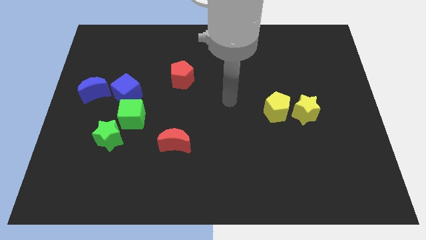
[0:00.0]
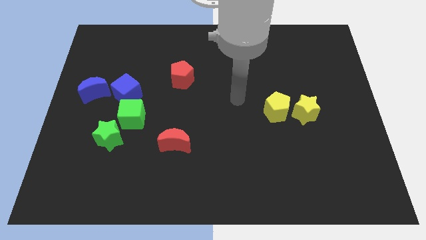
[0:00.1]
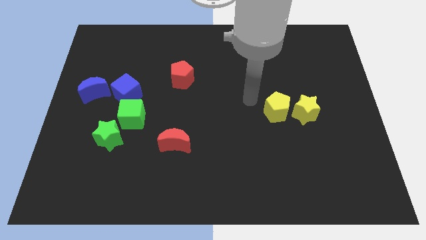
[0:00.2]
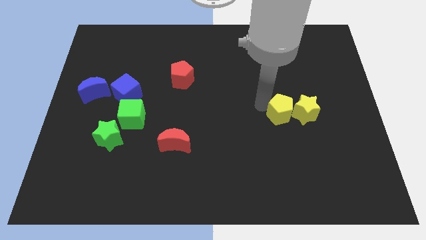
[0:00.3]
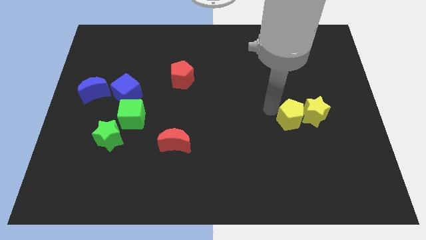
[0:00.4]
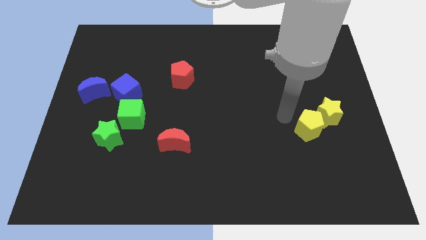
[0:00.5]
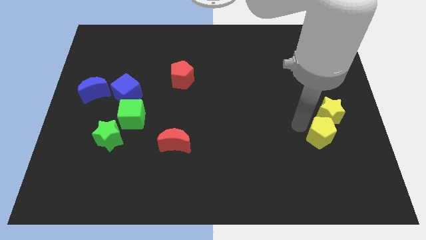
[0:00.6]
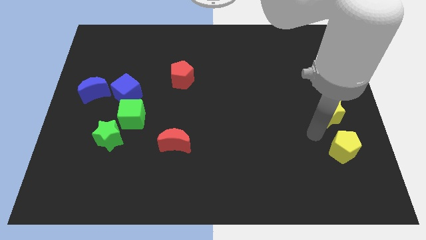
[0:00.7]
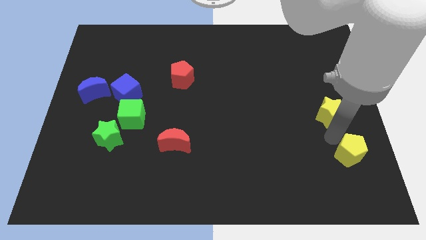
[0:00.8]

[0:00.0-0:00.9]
pull the yellow star apart from the yellow pentagon

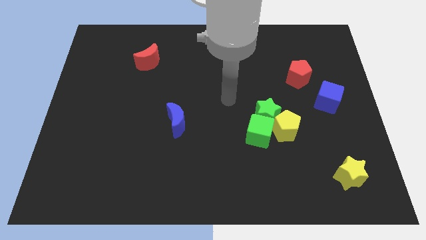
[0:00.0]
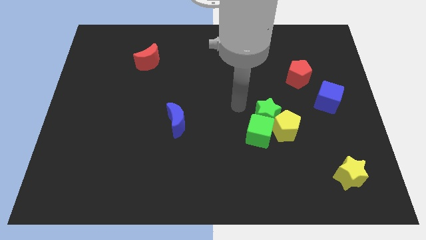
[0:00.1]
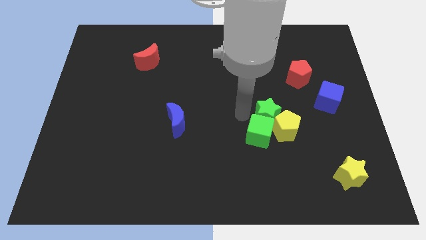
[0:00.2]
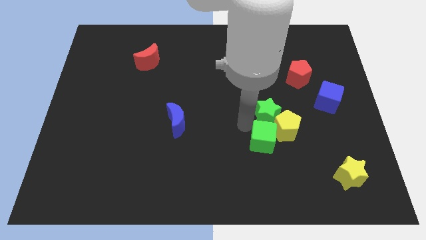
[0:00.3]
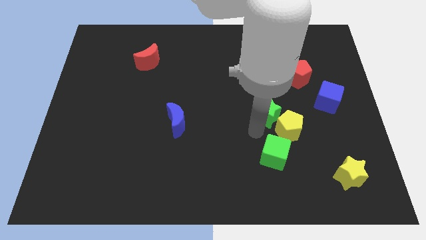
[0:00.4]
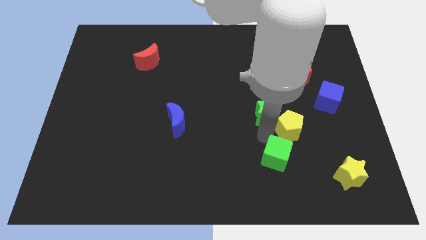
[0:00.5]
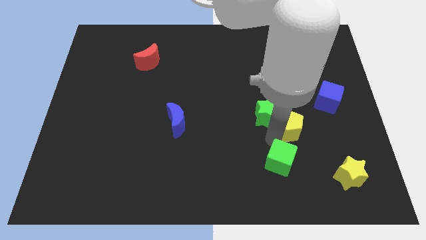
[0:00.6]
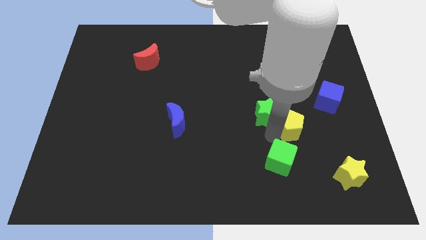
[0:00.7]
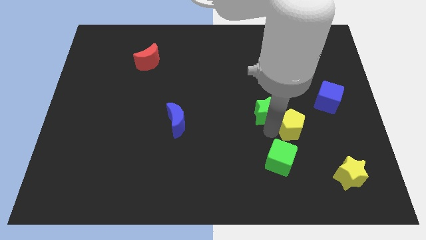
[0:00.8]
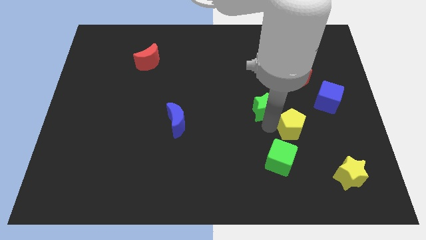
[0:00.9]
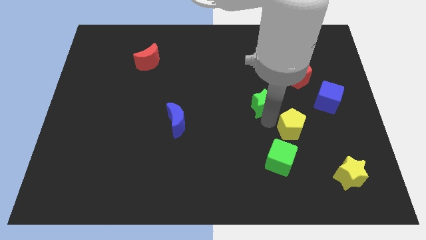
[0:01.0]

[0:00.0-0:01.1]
separate the green star from the yellow pentagon and green cube

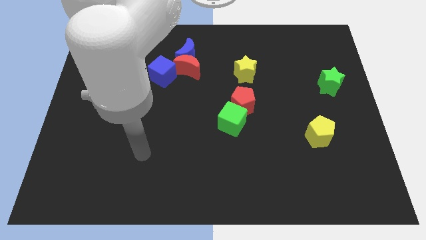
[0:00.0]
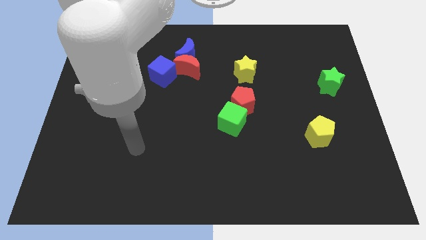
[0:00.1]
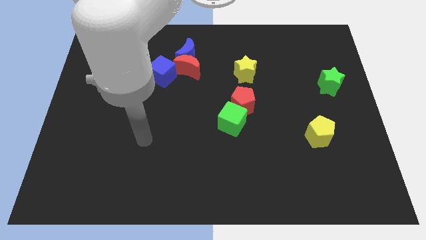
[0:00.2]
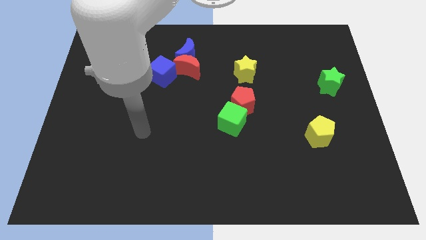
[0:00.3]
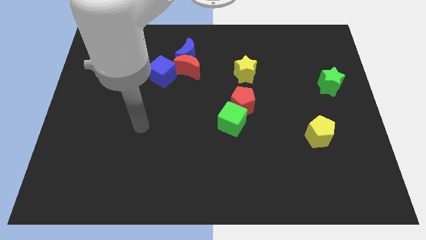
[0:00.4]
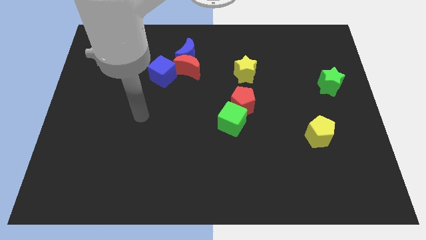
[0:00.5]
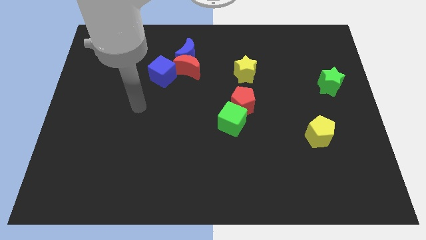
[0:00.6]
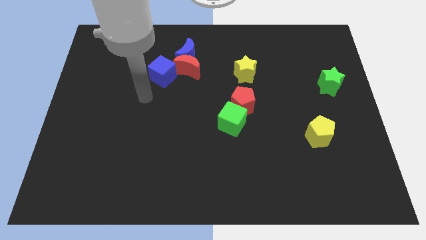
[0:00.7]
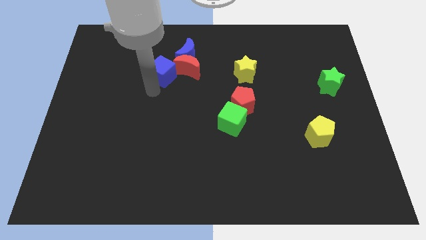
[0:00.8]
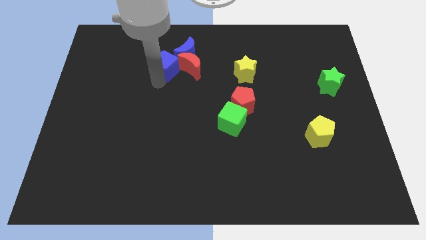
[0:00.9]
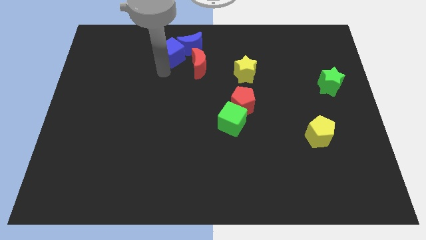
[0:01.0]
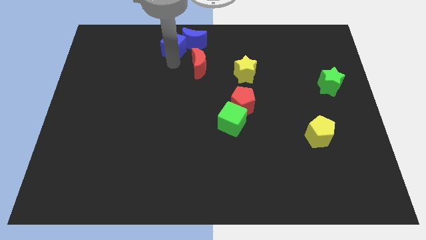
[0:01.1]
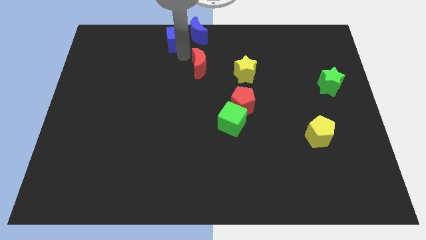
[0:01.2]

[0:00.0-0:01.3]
move the red moon away from the blue moon and blue cube

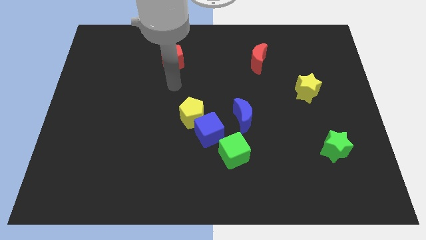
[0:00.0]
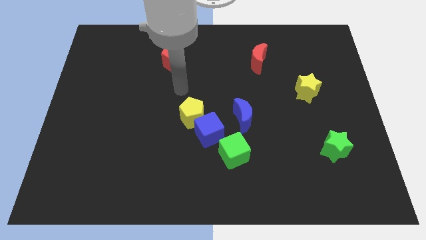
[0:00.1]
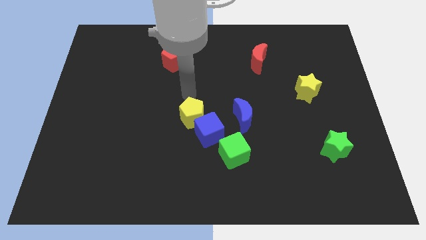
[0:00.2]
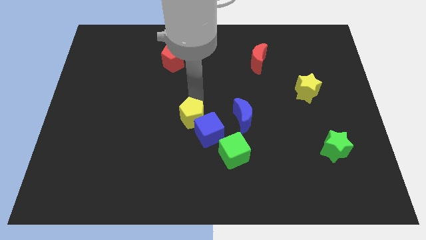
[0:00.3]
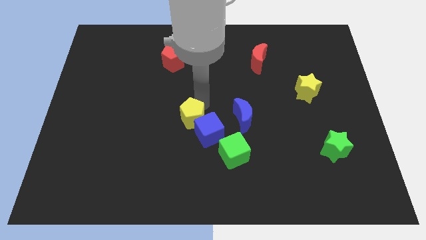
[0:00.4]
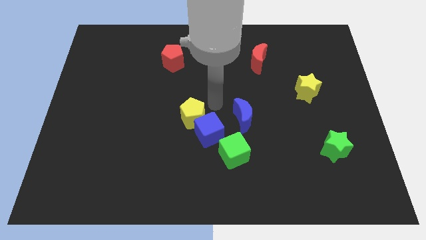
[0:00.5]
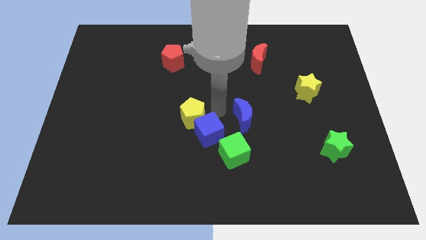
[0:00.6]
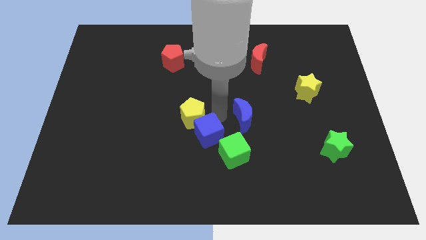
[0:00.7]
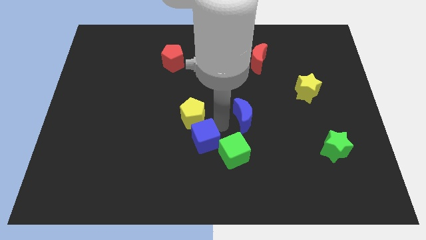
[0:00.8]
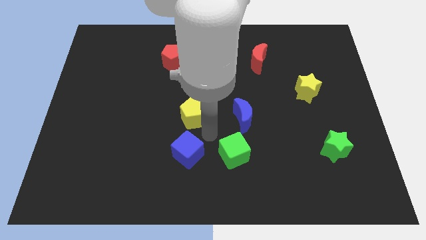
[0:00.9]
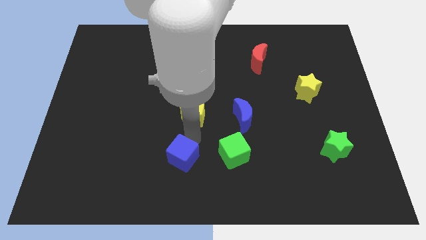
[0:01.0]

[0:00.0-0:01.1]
separate the yellow pentagon from the blue cube

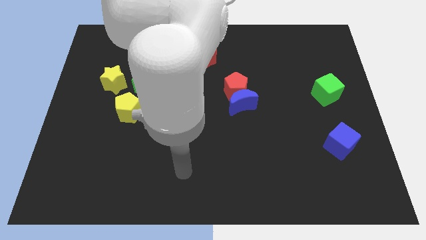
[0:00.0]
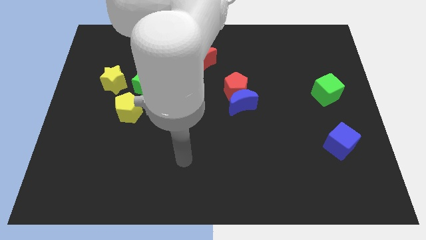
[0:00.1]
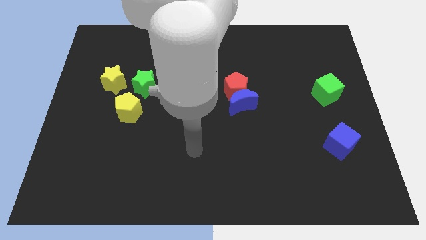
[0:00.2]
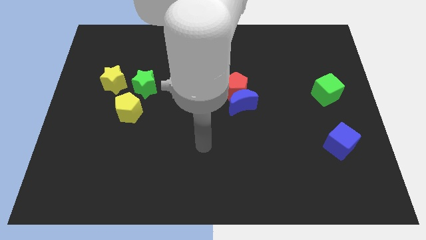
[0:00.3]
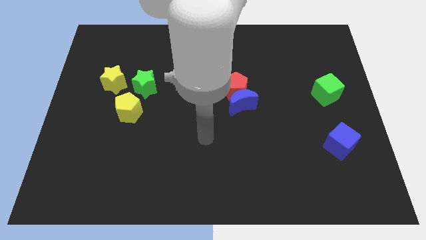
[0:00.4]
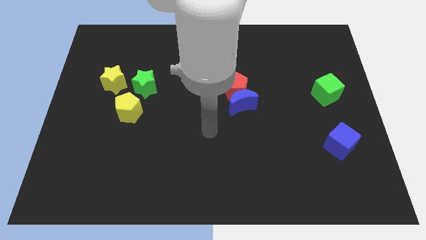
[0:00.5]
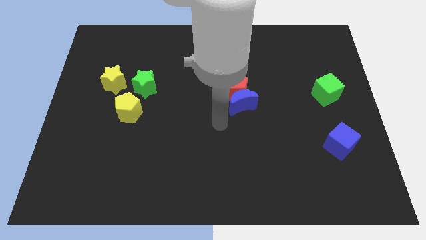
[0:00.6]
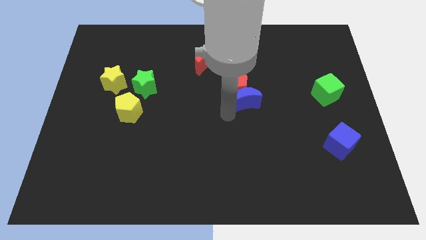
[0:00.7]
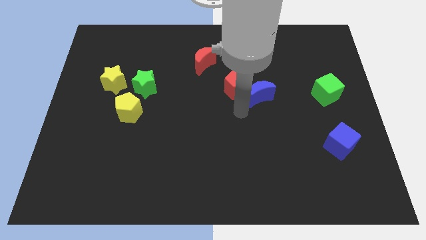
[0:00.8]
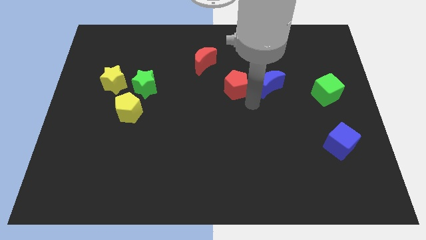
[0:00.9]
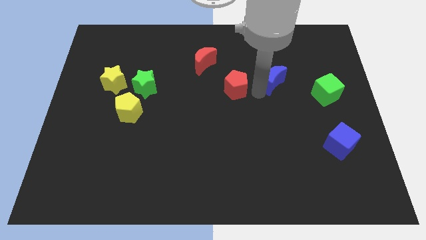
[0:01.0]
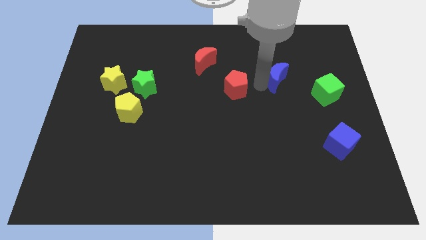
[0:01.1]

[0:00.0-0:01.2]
move the red pentagon away from the blue moon

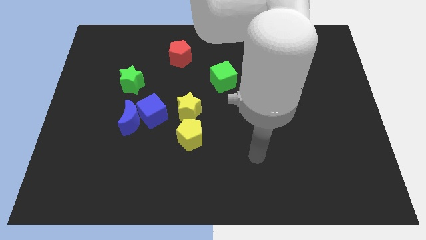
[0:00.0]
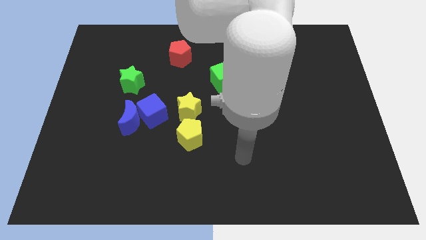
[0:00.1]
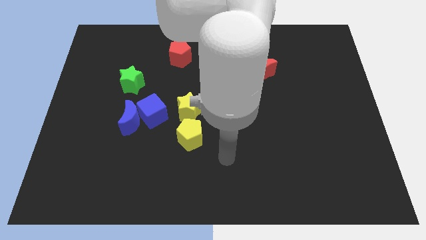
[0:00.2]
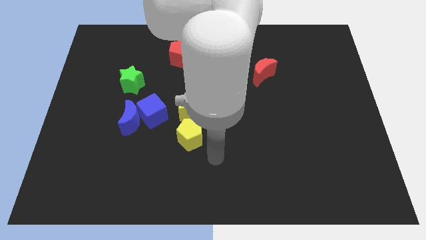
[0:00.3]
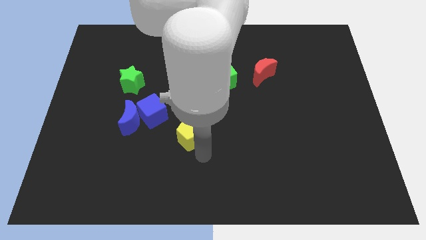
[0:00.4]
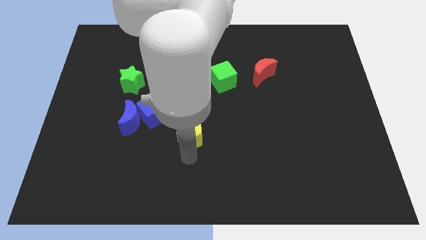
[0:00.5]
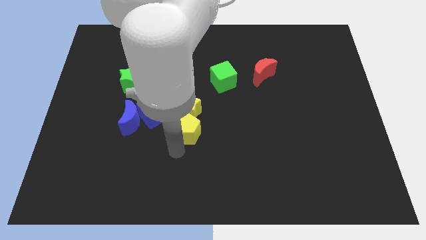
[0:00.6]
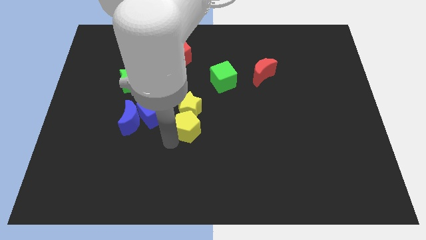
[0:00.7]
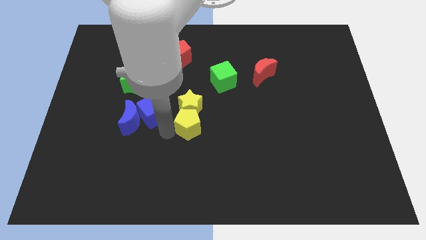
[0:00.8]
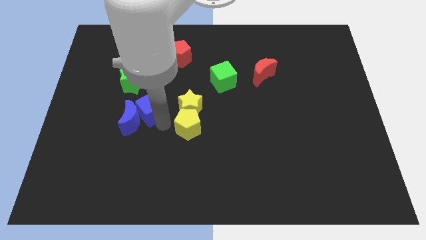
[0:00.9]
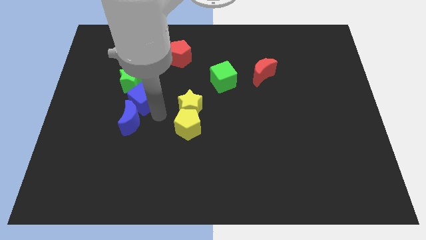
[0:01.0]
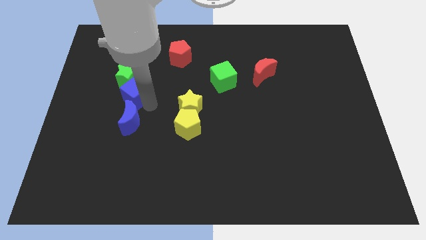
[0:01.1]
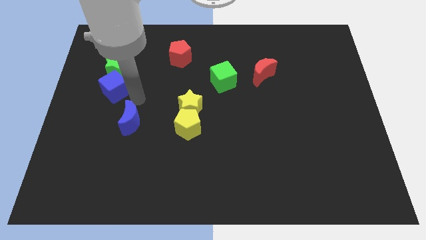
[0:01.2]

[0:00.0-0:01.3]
move the blue moon away from the blue cube

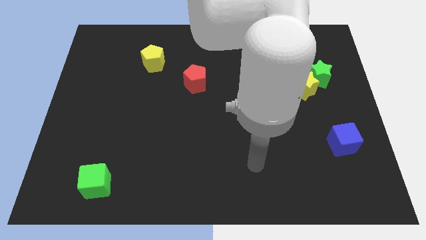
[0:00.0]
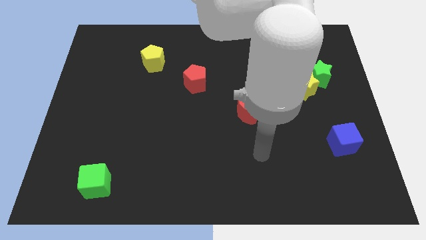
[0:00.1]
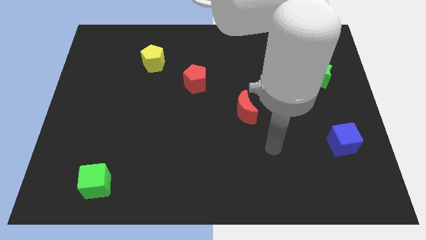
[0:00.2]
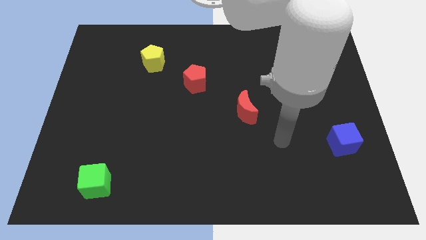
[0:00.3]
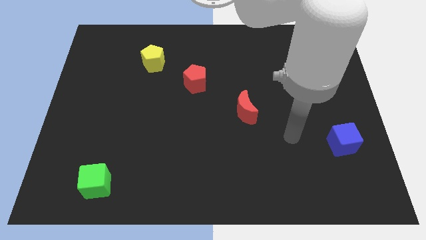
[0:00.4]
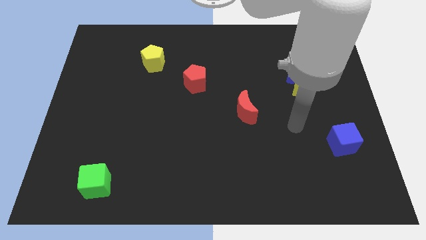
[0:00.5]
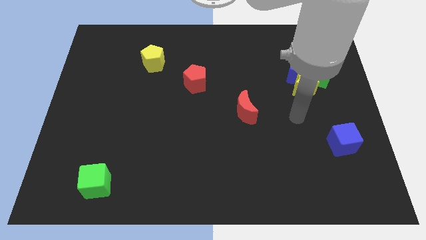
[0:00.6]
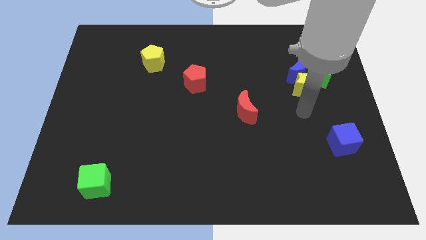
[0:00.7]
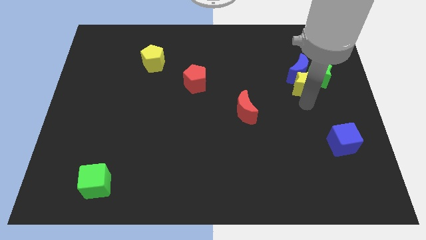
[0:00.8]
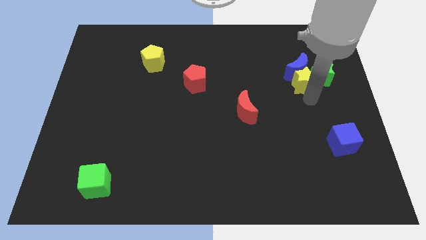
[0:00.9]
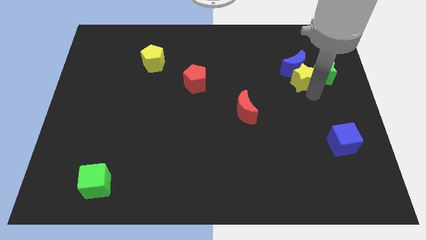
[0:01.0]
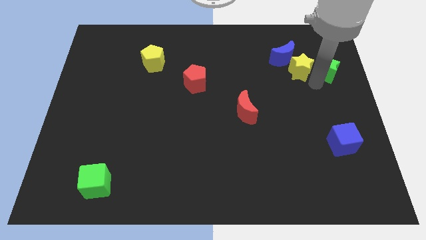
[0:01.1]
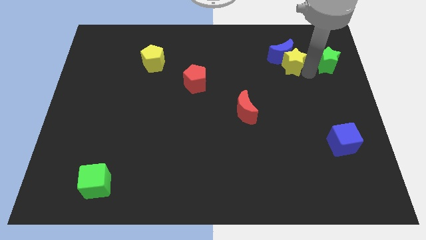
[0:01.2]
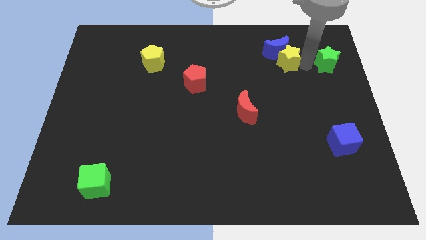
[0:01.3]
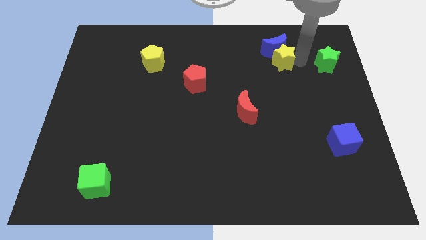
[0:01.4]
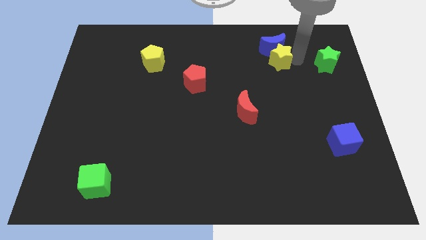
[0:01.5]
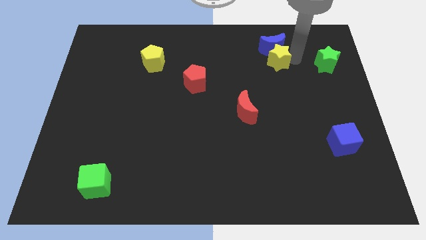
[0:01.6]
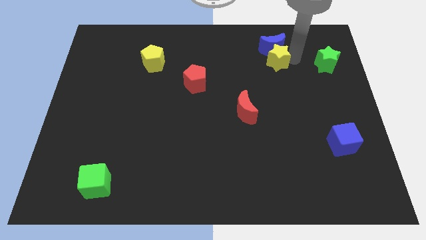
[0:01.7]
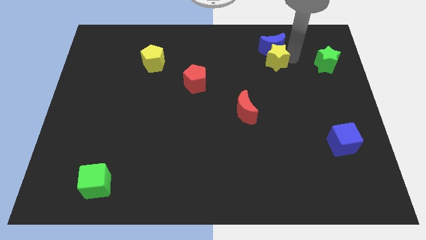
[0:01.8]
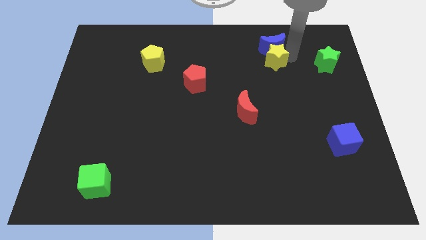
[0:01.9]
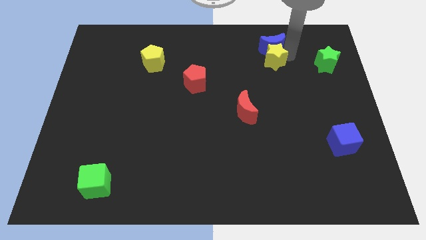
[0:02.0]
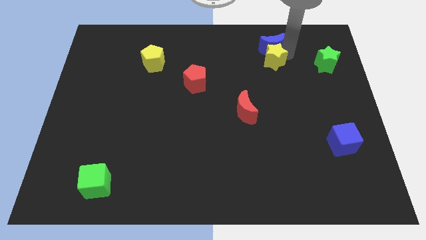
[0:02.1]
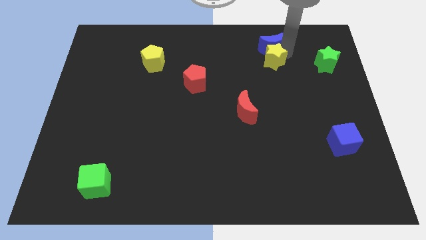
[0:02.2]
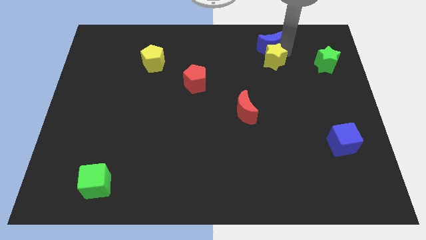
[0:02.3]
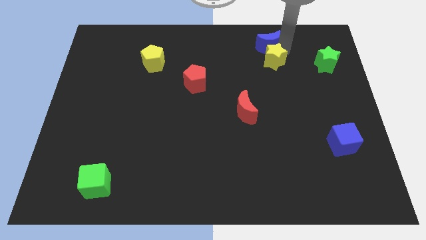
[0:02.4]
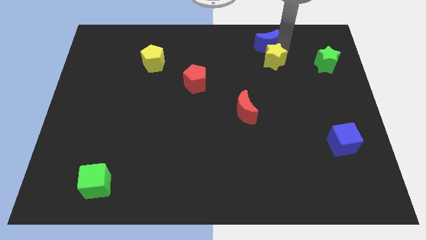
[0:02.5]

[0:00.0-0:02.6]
separate the blue moon from the yellow star and green star
